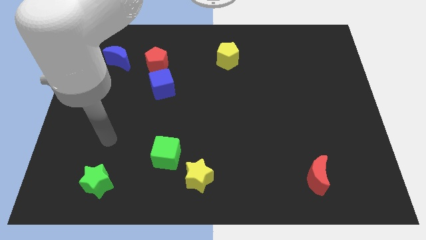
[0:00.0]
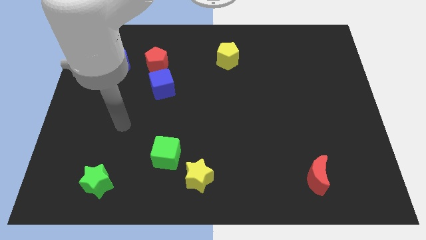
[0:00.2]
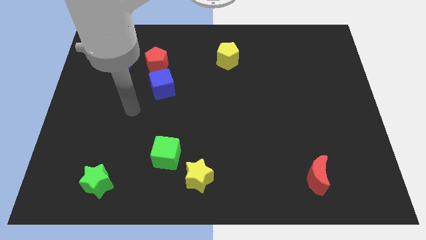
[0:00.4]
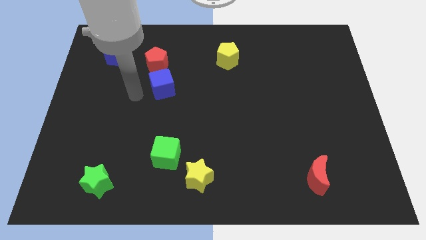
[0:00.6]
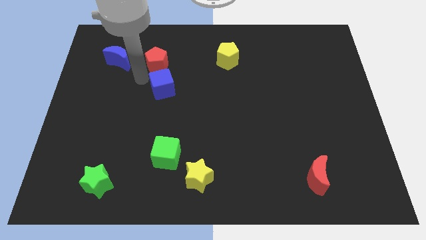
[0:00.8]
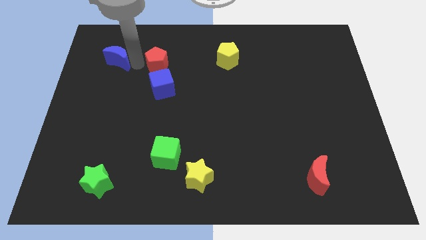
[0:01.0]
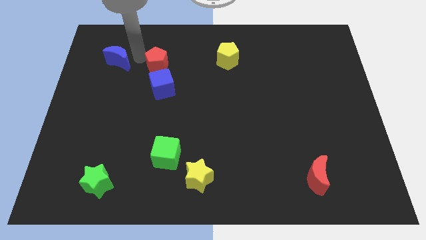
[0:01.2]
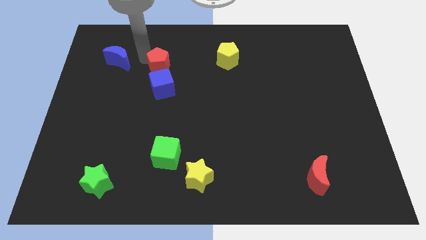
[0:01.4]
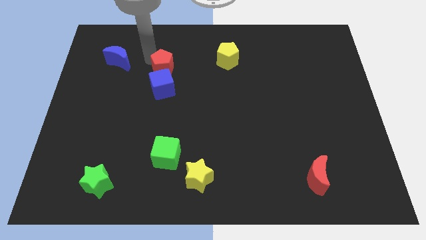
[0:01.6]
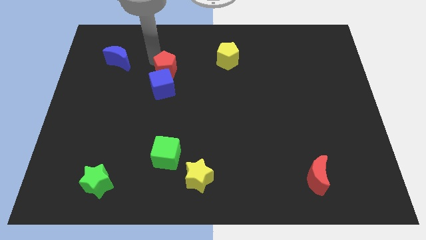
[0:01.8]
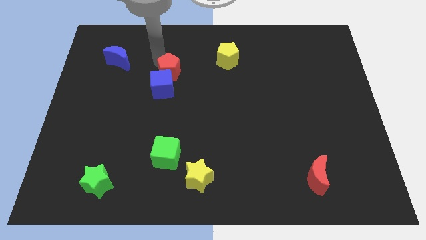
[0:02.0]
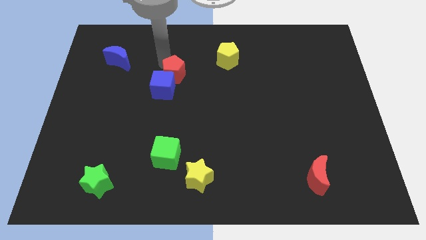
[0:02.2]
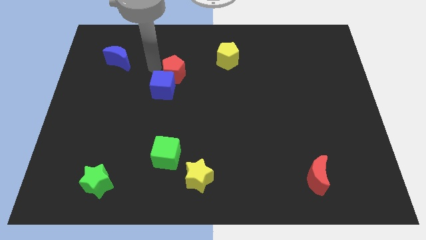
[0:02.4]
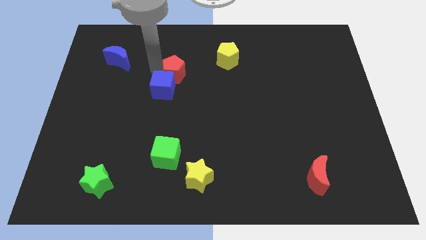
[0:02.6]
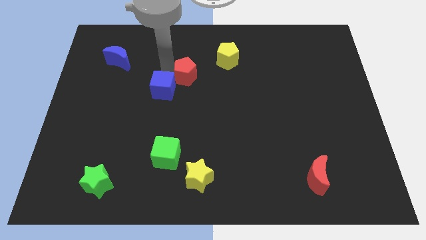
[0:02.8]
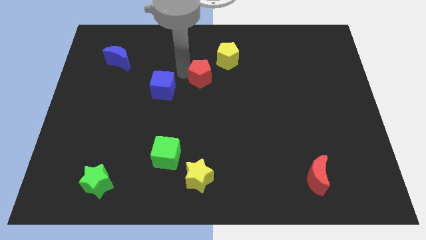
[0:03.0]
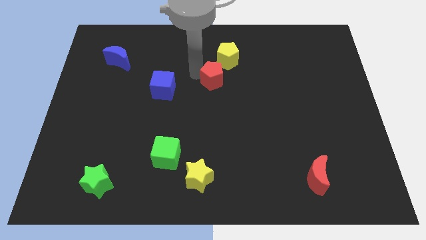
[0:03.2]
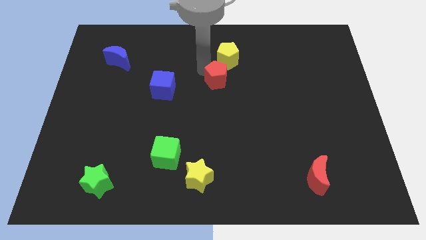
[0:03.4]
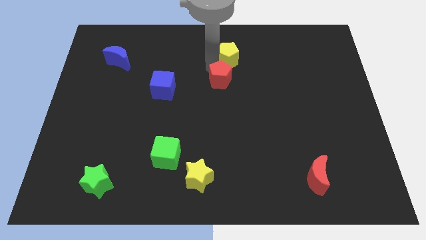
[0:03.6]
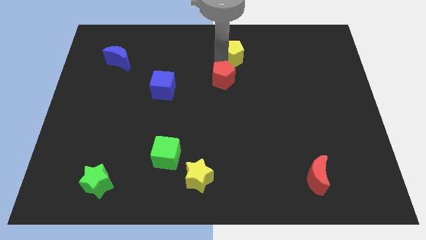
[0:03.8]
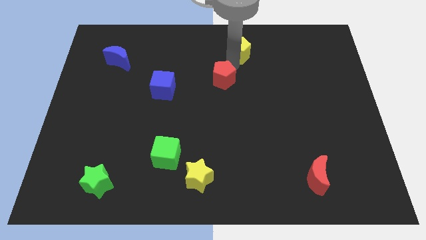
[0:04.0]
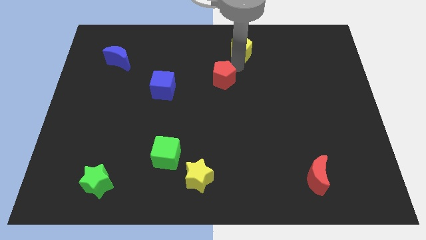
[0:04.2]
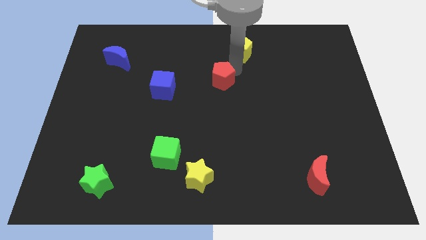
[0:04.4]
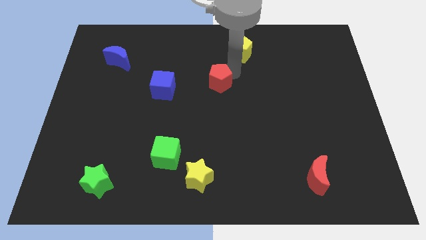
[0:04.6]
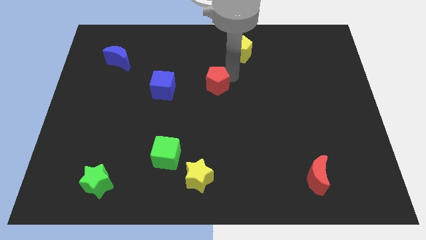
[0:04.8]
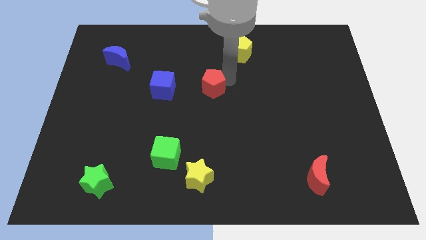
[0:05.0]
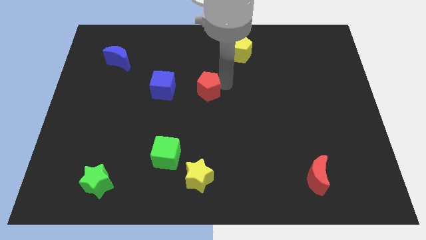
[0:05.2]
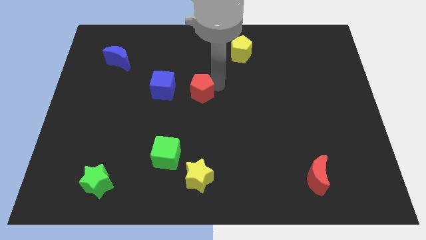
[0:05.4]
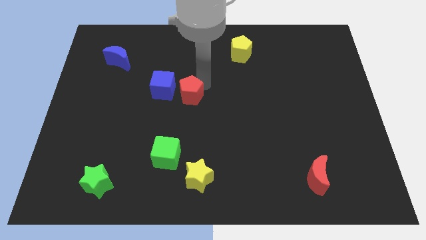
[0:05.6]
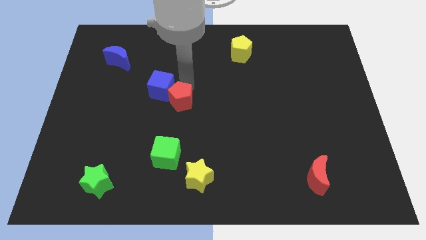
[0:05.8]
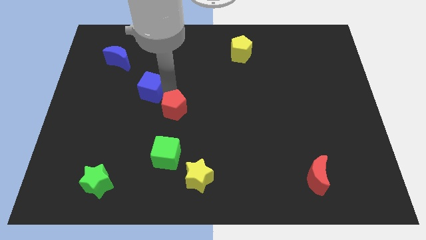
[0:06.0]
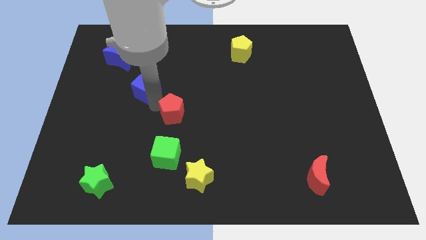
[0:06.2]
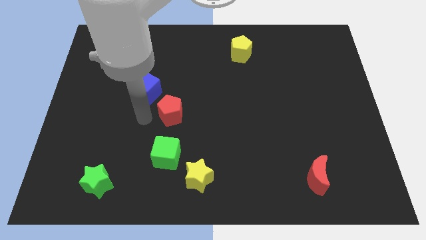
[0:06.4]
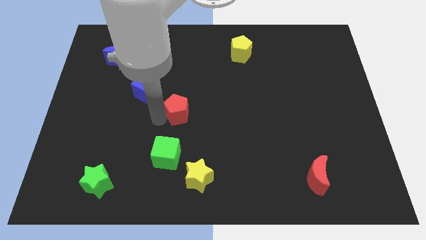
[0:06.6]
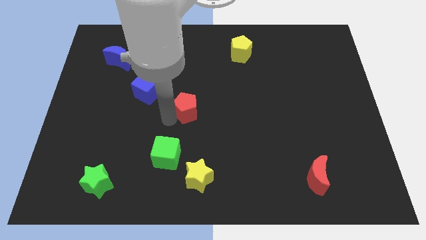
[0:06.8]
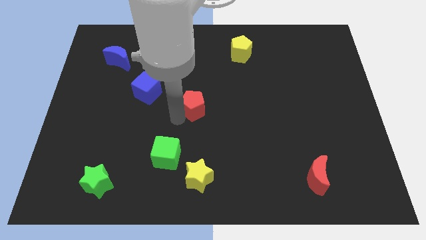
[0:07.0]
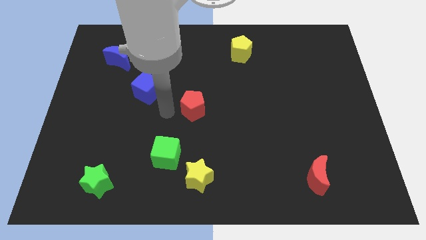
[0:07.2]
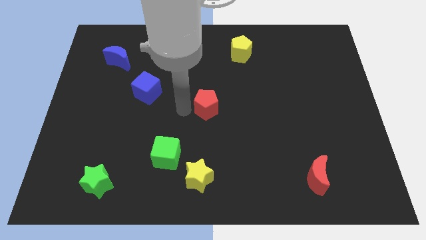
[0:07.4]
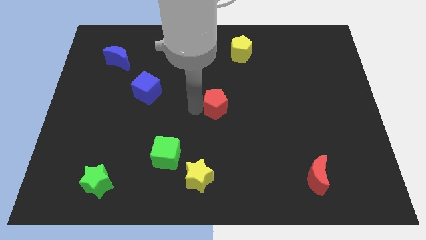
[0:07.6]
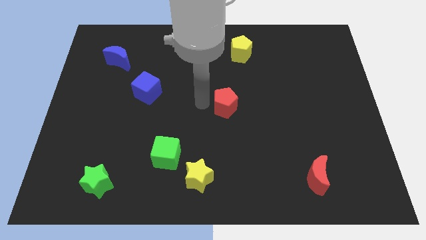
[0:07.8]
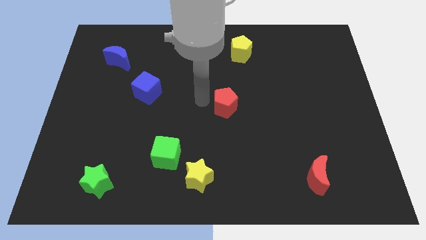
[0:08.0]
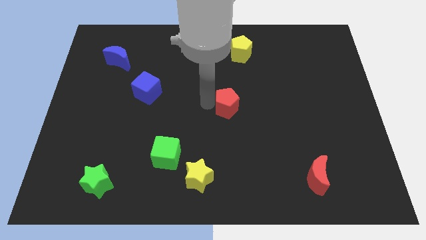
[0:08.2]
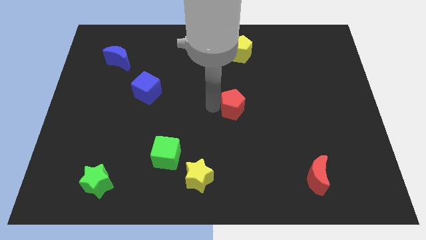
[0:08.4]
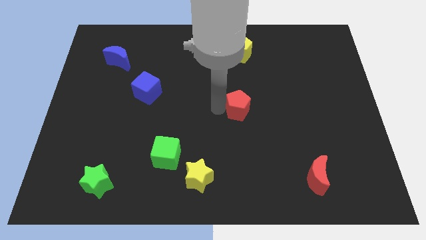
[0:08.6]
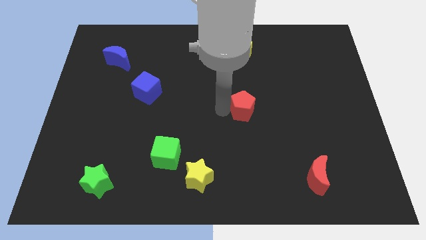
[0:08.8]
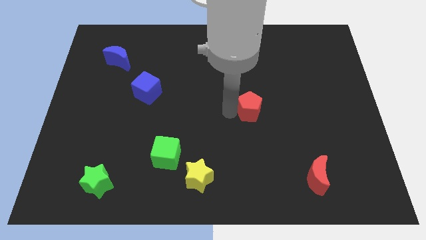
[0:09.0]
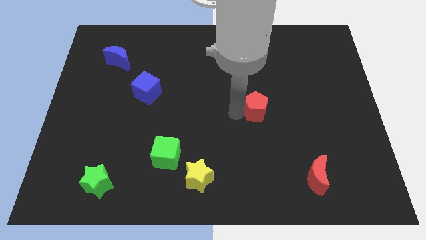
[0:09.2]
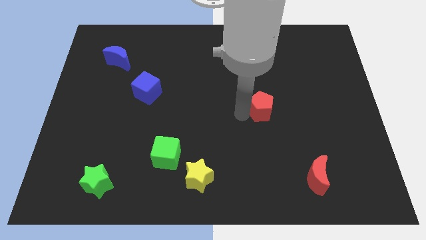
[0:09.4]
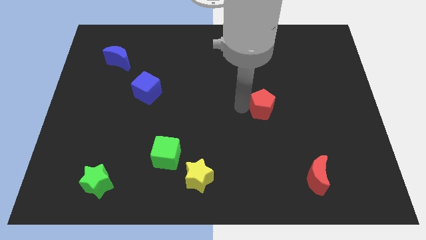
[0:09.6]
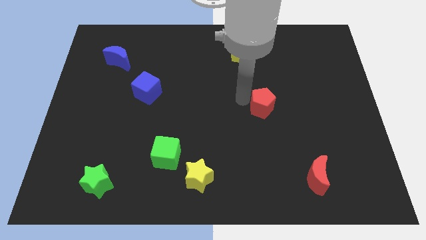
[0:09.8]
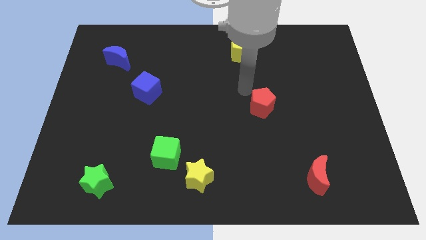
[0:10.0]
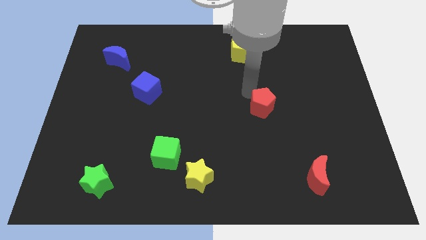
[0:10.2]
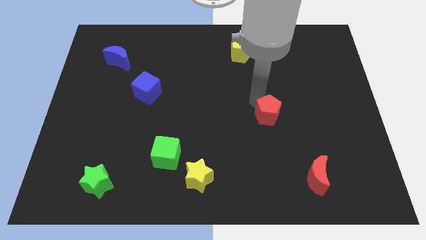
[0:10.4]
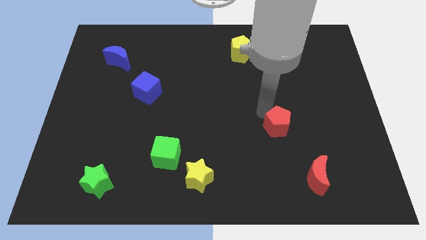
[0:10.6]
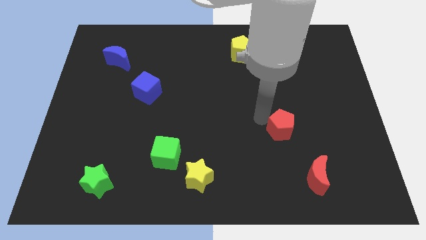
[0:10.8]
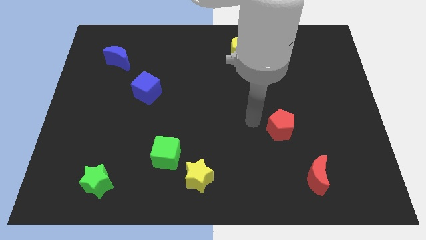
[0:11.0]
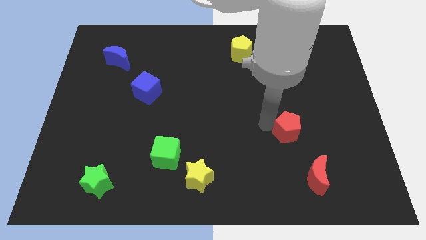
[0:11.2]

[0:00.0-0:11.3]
slide the red pentagon above the red moon
